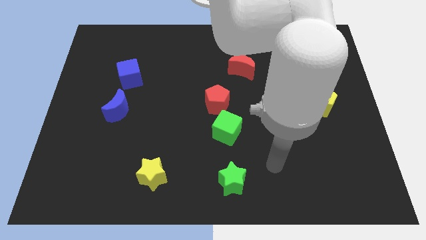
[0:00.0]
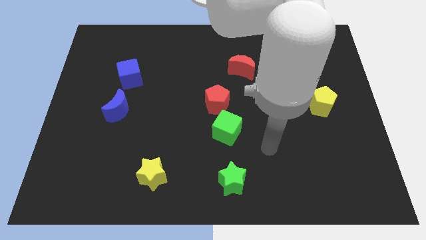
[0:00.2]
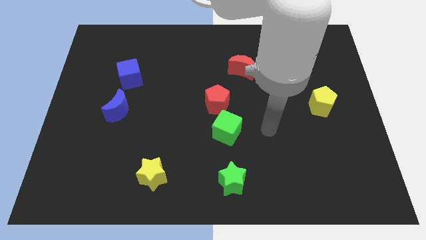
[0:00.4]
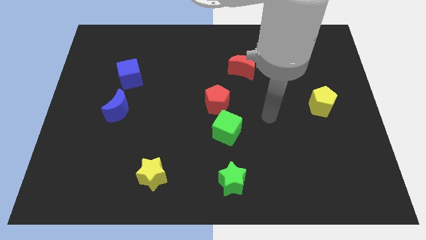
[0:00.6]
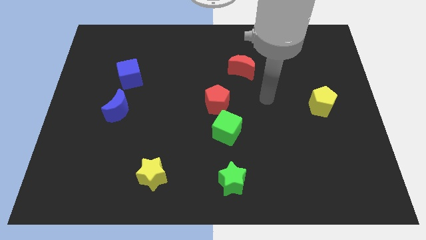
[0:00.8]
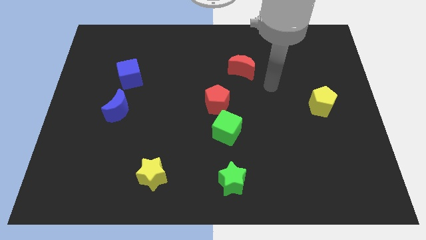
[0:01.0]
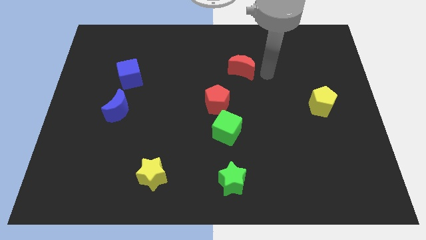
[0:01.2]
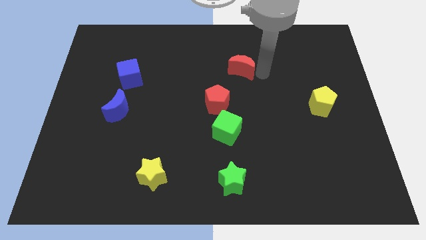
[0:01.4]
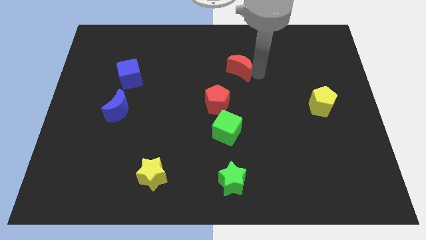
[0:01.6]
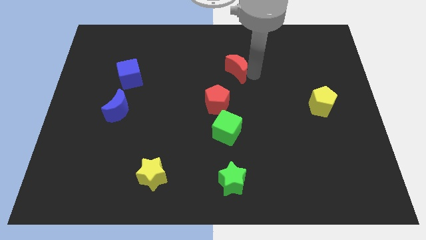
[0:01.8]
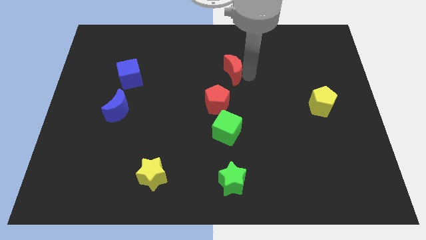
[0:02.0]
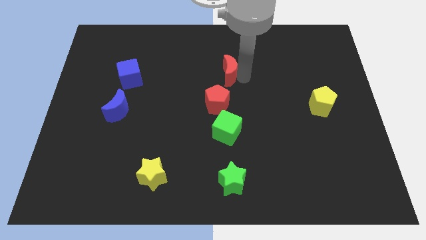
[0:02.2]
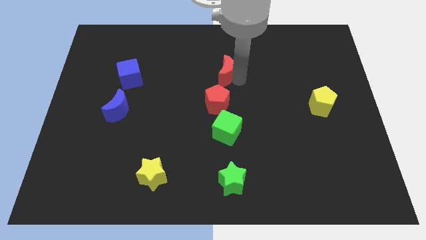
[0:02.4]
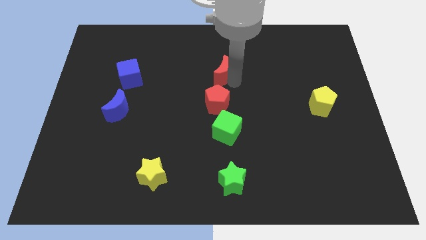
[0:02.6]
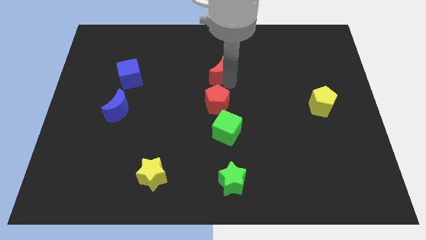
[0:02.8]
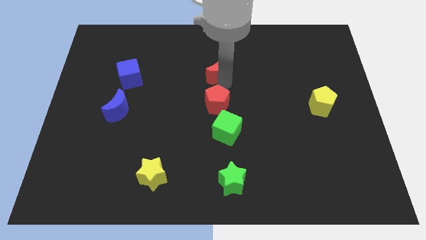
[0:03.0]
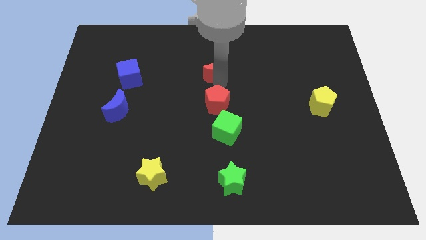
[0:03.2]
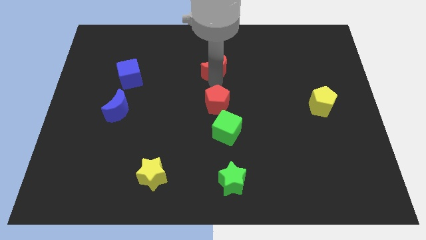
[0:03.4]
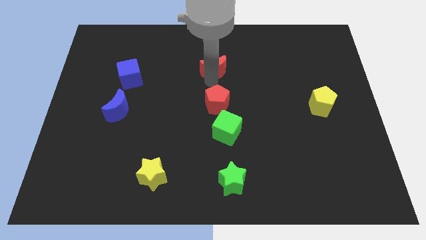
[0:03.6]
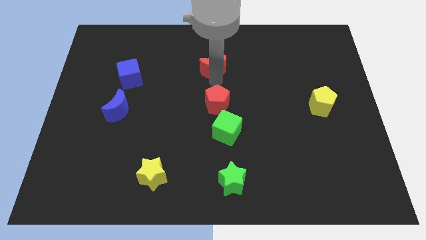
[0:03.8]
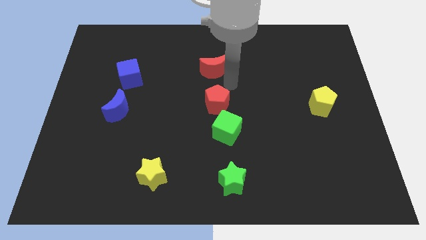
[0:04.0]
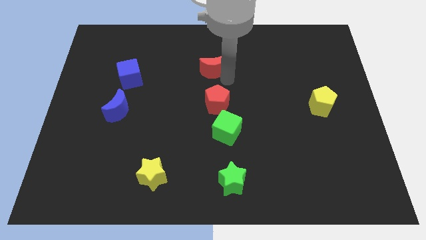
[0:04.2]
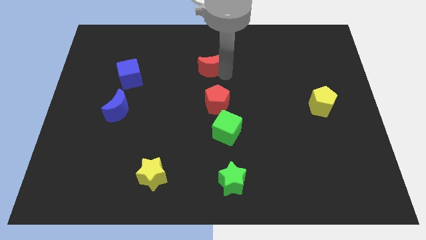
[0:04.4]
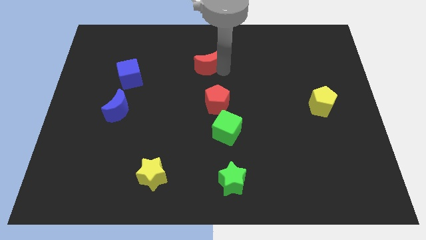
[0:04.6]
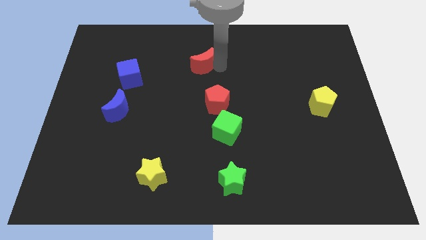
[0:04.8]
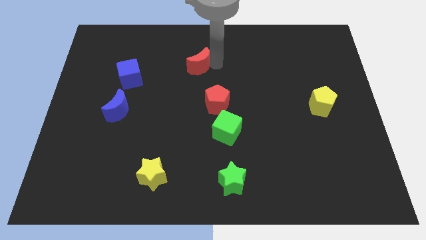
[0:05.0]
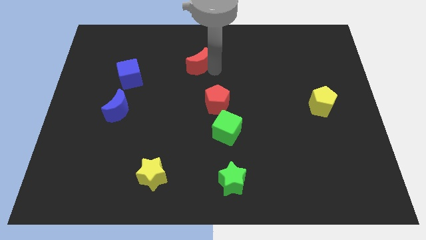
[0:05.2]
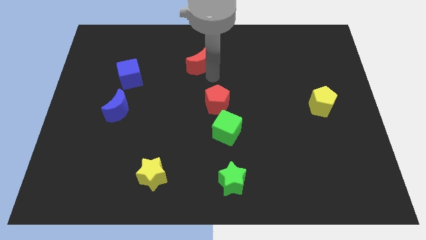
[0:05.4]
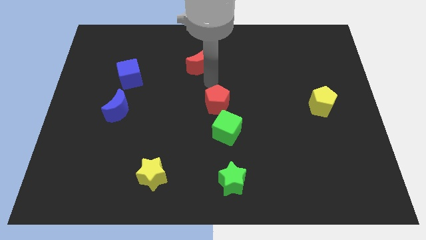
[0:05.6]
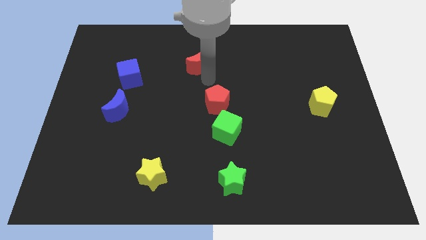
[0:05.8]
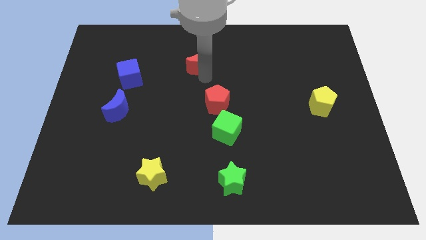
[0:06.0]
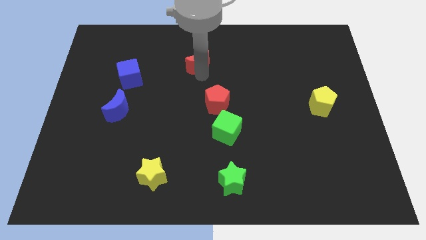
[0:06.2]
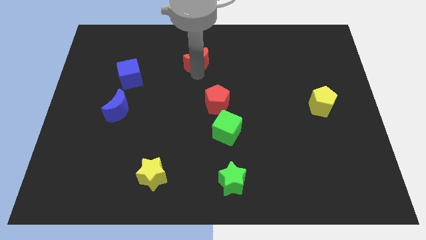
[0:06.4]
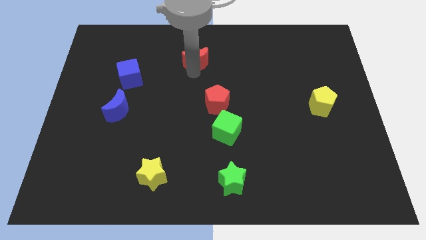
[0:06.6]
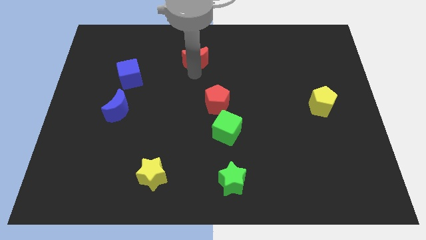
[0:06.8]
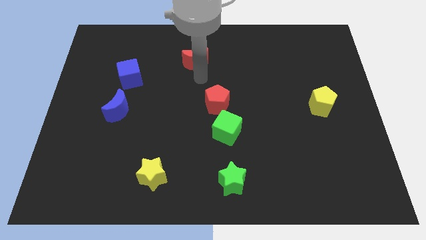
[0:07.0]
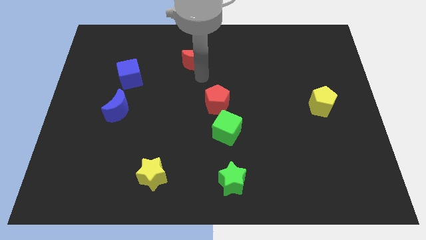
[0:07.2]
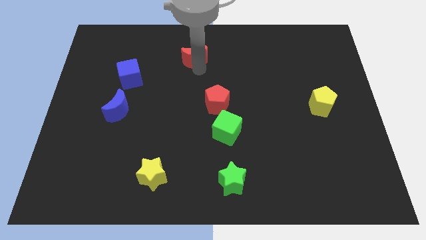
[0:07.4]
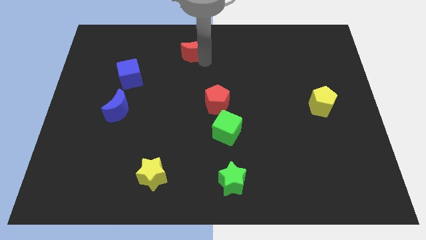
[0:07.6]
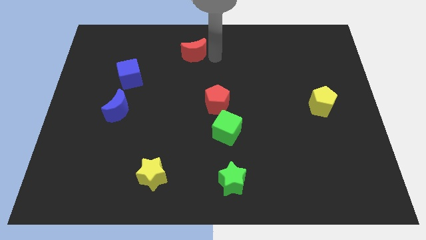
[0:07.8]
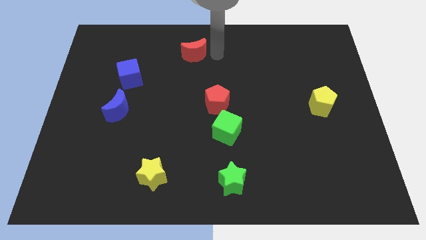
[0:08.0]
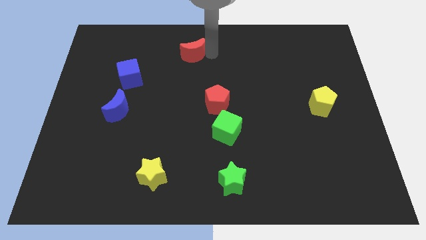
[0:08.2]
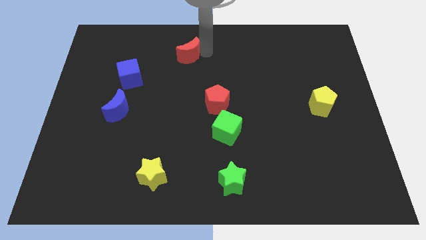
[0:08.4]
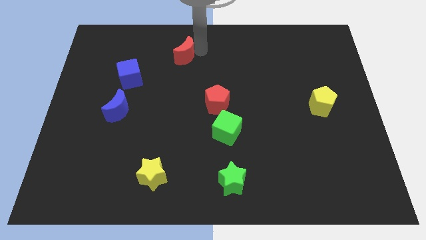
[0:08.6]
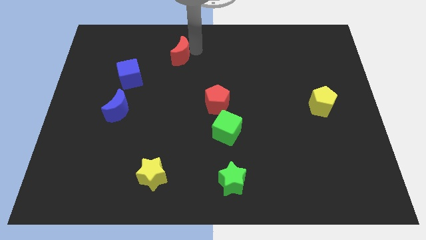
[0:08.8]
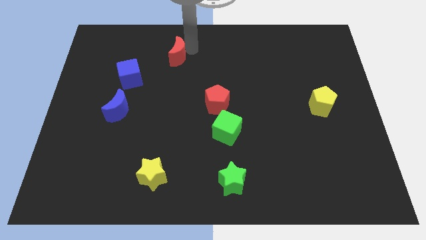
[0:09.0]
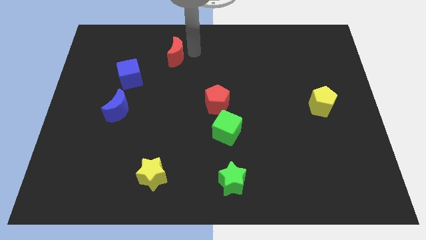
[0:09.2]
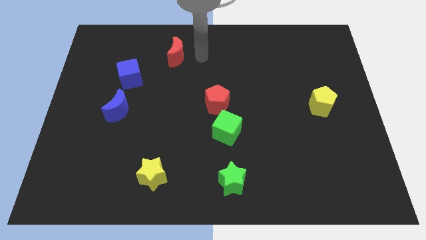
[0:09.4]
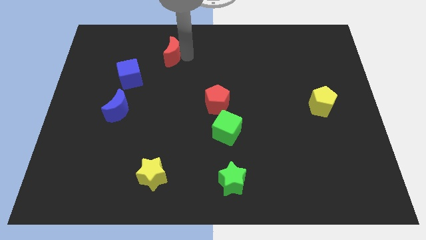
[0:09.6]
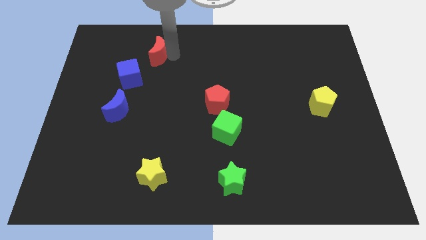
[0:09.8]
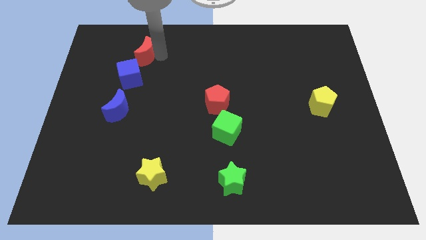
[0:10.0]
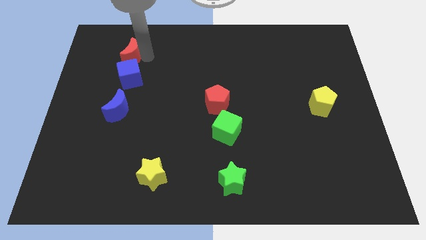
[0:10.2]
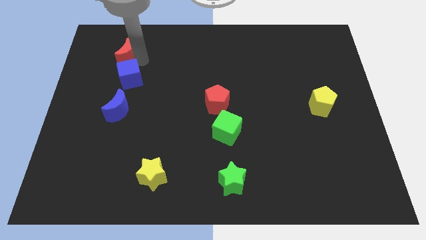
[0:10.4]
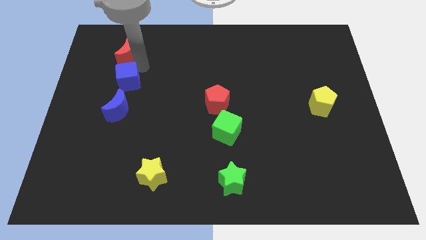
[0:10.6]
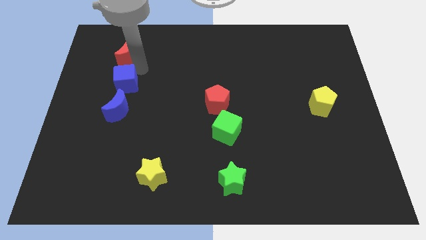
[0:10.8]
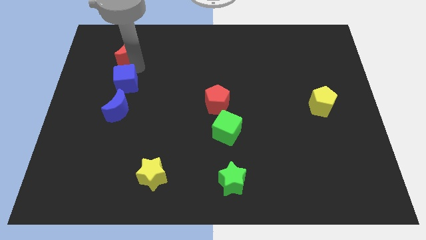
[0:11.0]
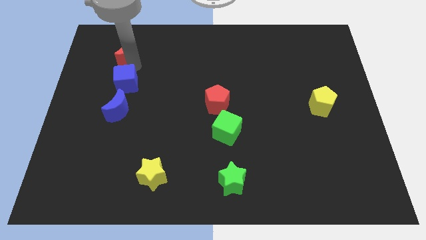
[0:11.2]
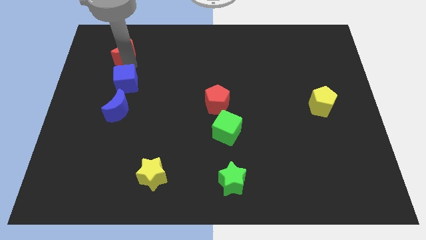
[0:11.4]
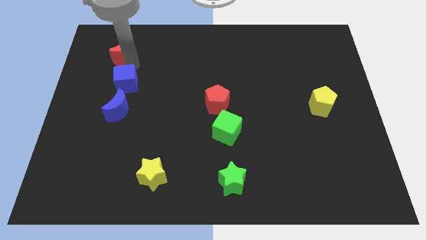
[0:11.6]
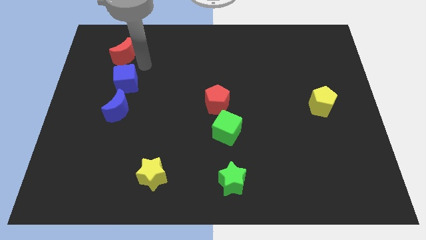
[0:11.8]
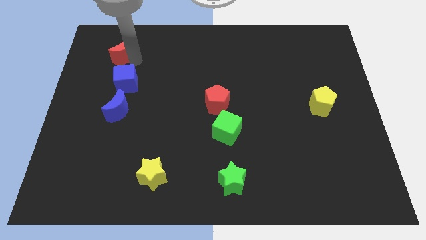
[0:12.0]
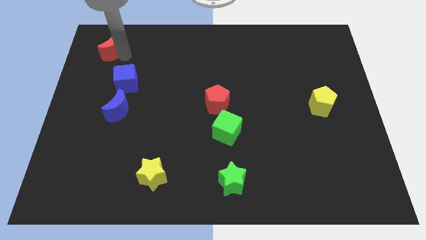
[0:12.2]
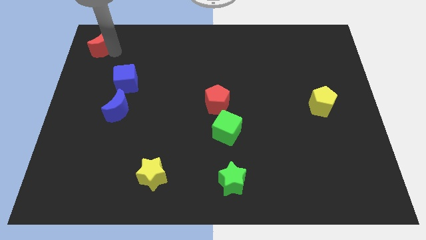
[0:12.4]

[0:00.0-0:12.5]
move the red moon to the top left corner
